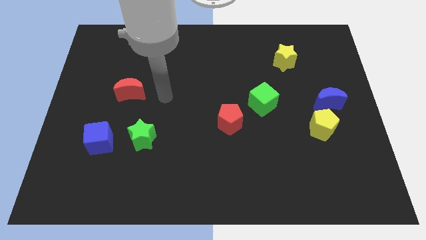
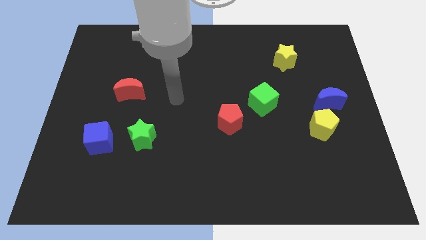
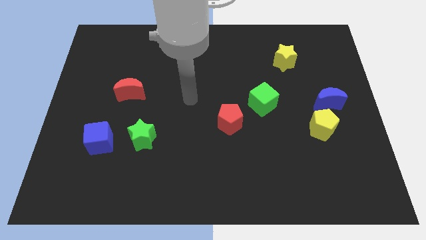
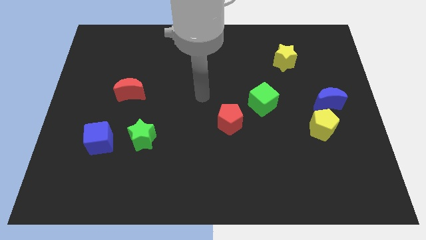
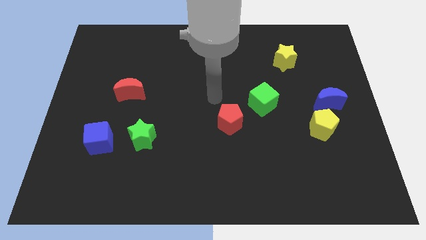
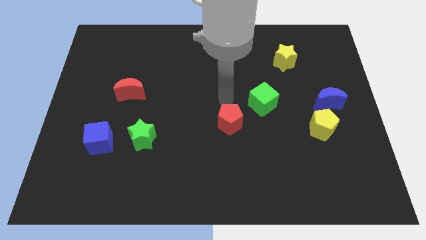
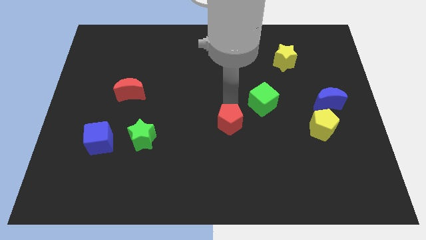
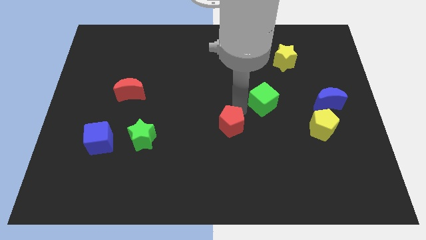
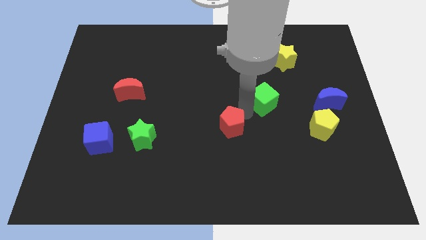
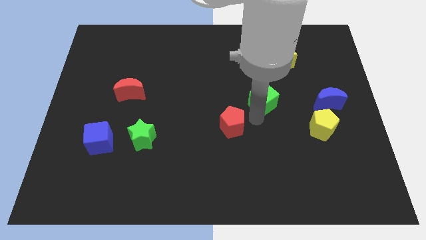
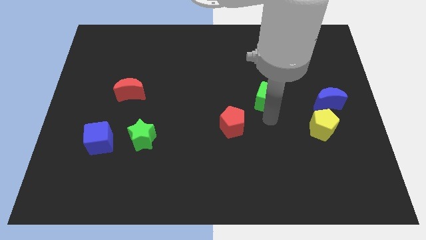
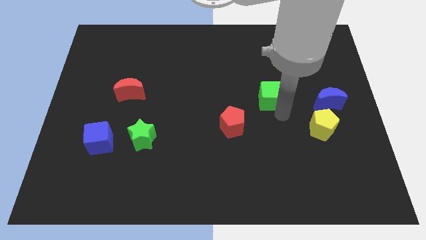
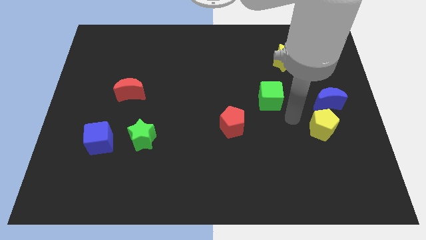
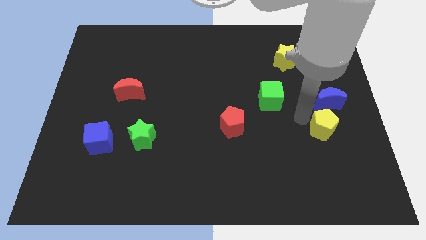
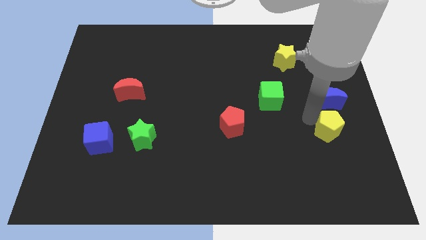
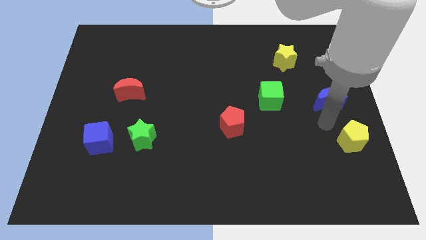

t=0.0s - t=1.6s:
move the blue moon away from the yellow pentagon

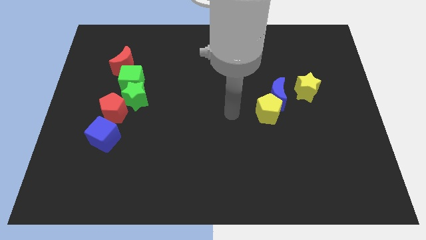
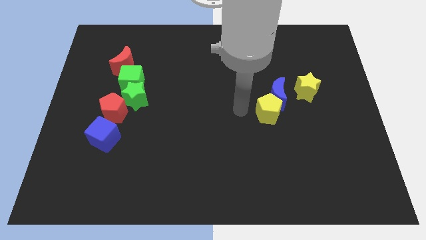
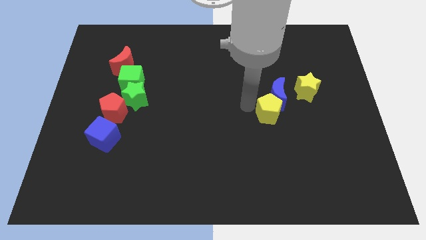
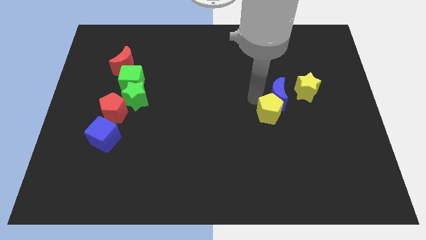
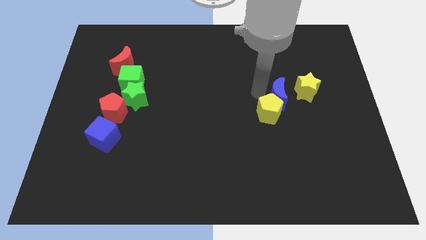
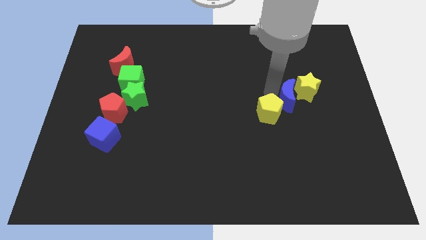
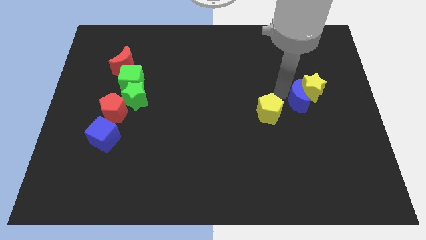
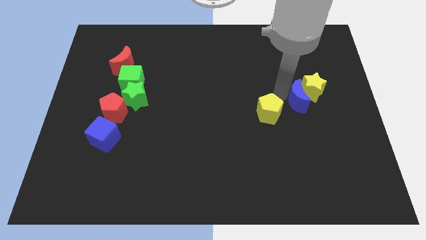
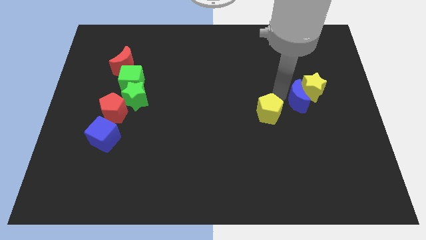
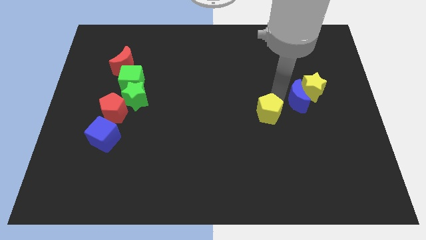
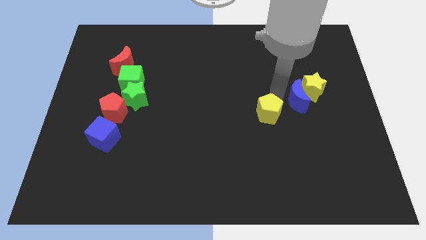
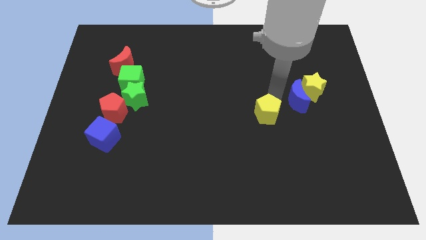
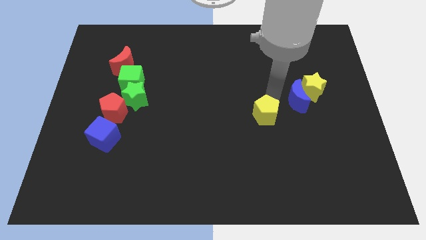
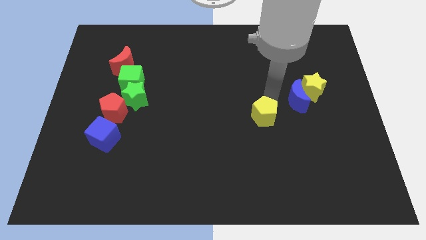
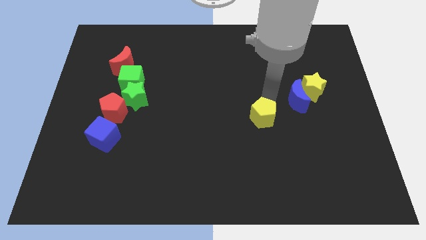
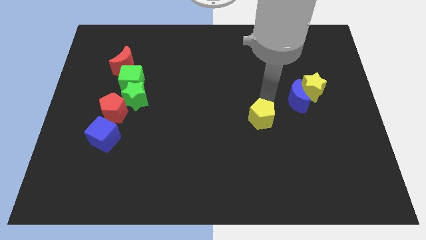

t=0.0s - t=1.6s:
move the yellow pentagon away from the blue moon

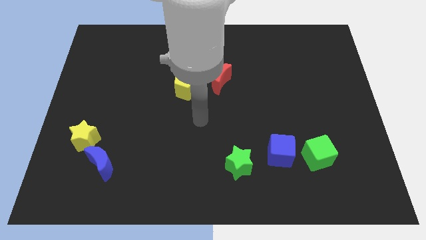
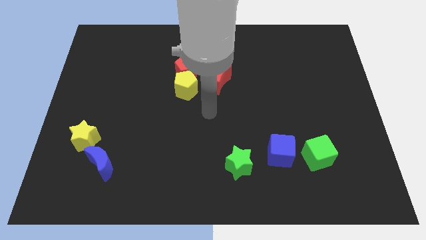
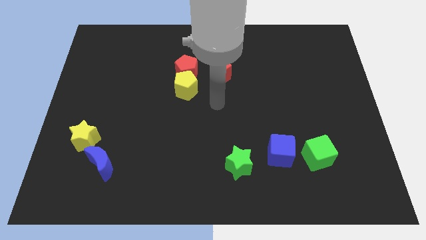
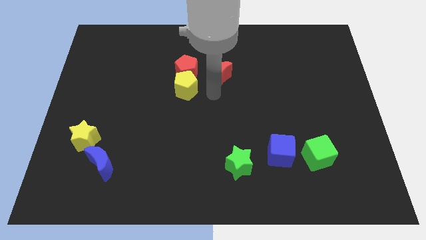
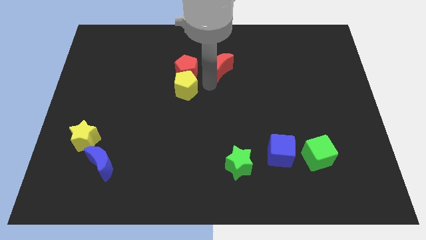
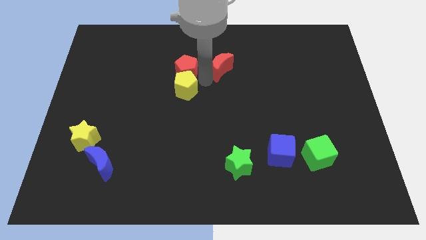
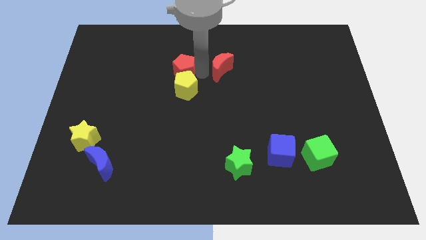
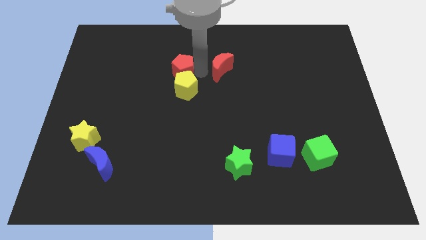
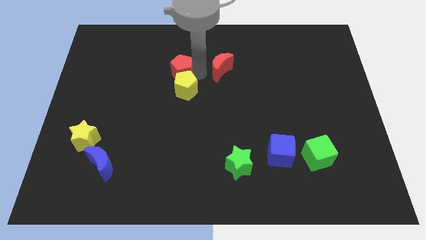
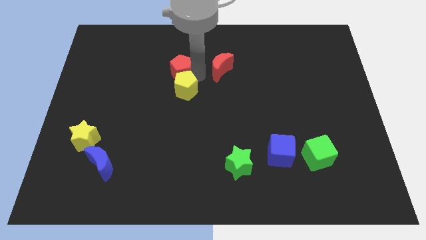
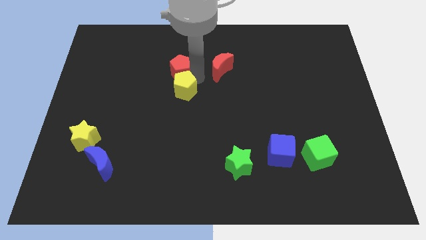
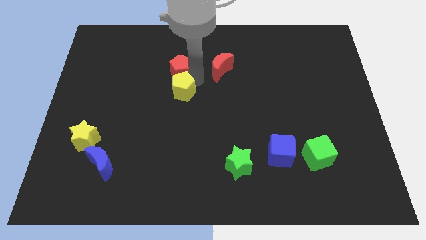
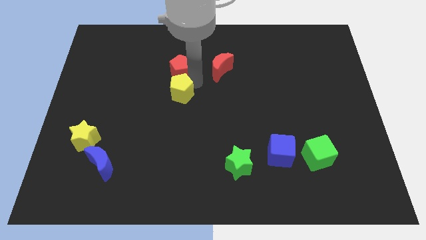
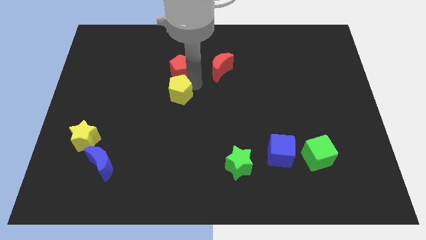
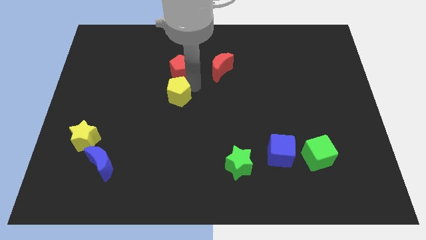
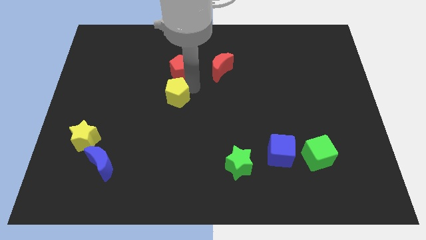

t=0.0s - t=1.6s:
move the yellow pentagon away from the red pentagon and red moon

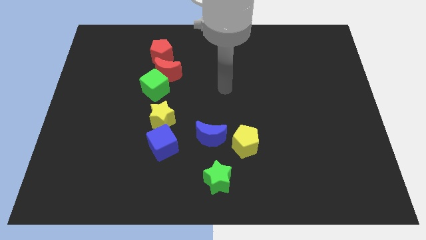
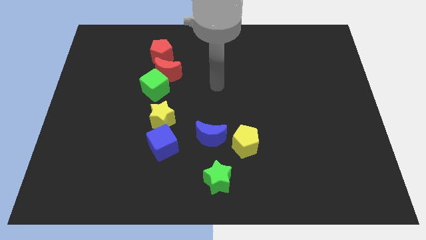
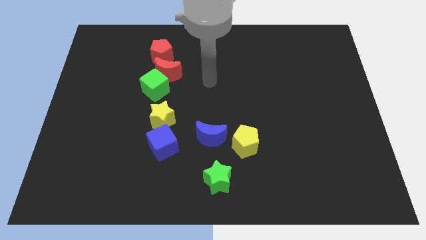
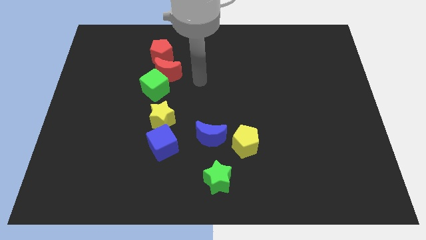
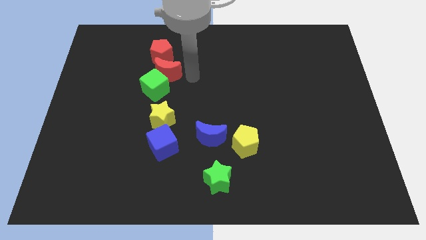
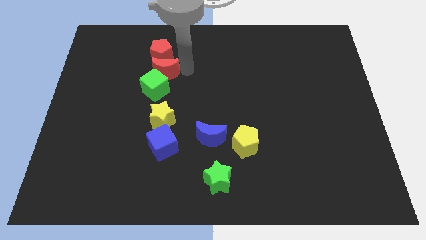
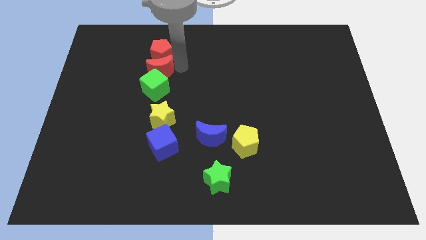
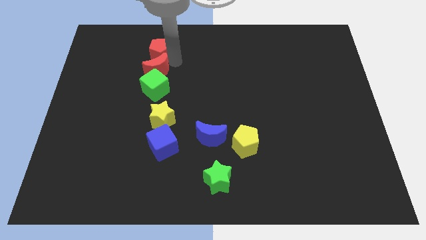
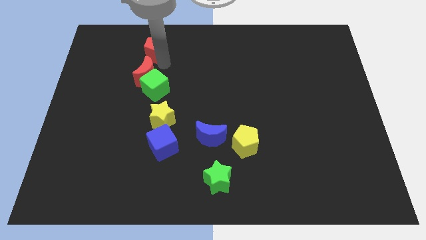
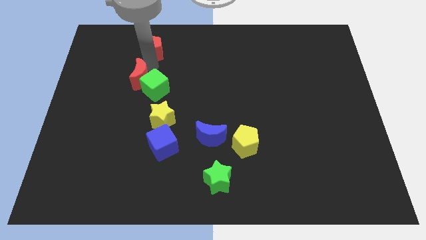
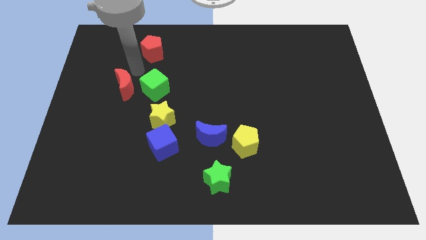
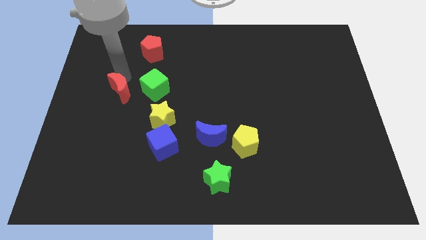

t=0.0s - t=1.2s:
pull the red moon apart from the green cube and red pentagon

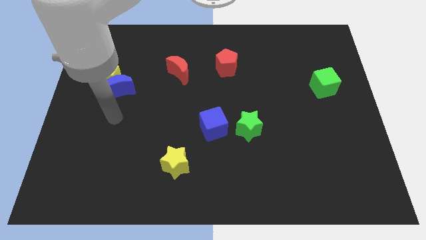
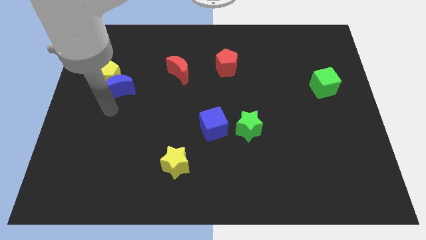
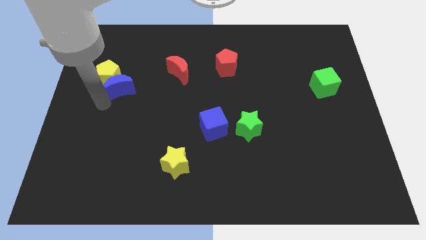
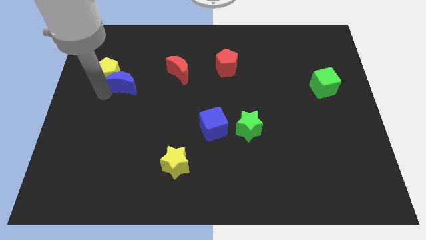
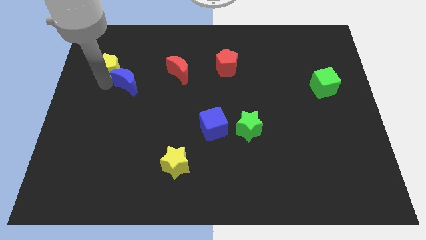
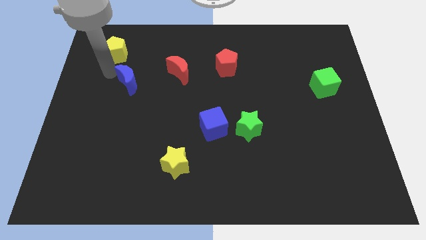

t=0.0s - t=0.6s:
separate the blue moon from the yellow pentagon

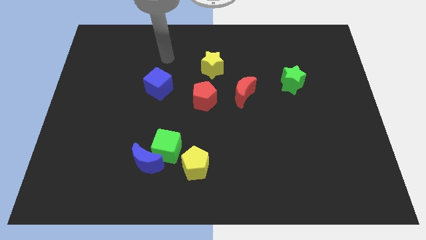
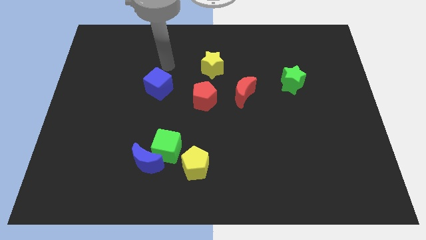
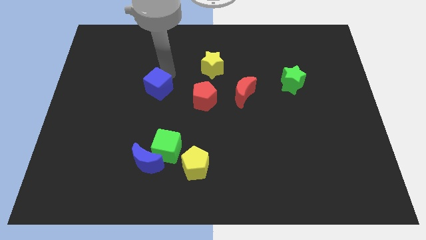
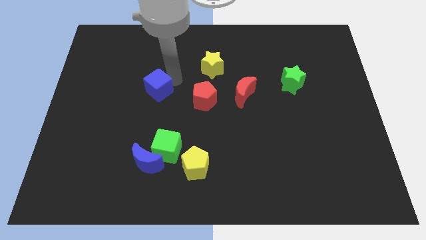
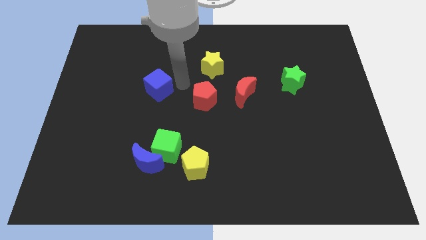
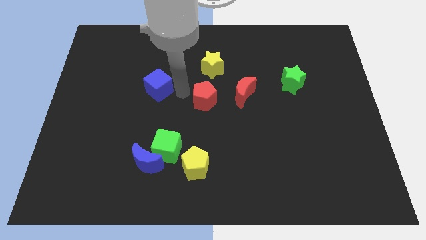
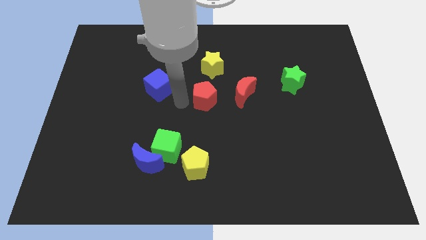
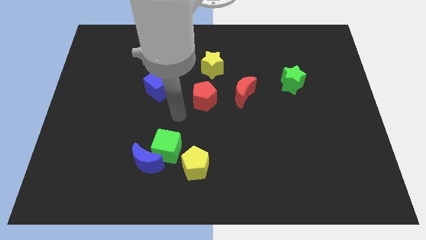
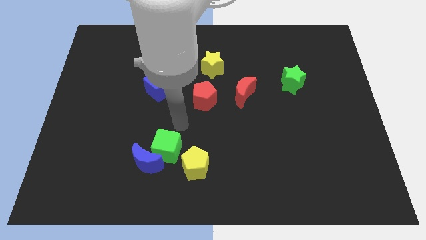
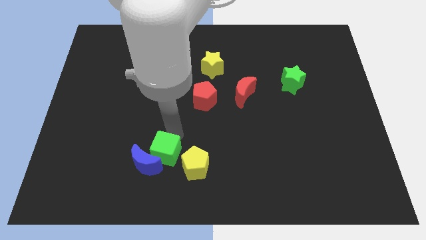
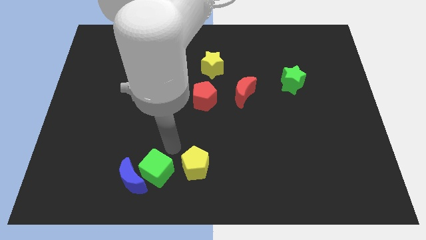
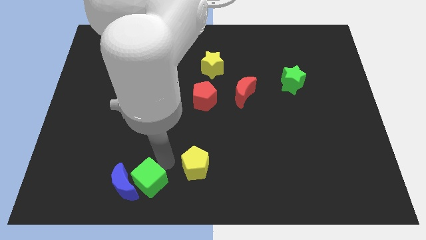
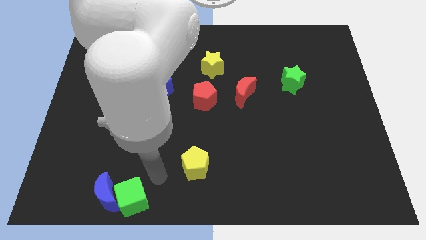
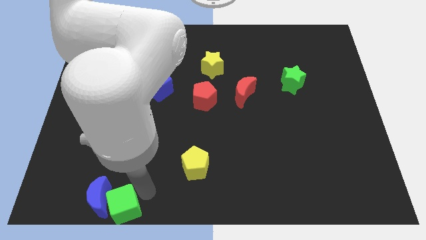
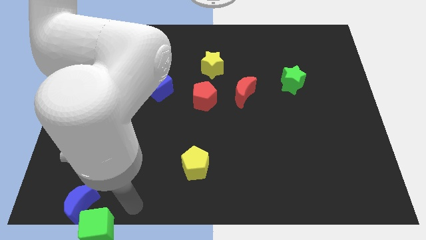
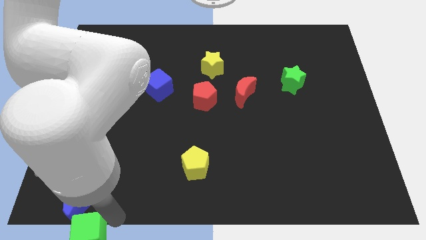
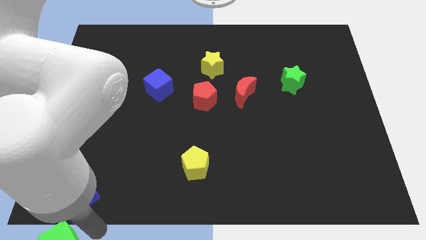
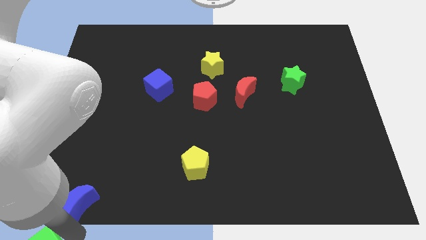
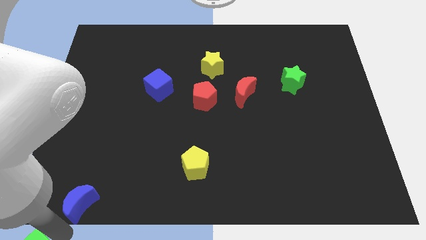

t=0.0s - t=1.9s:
pull the blue moon apart from the green cube

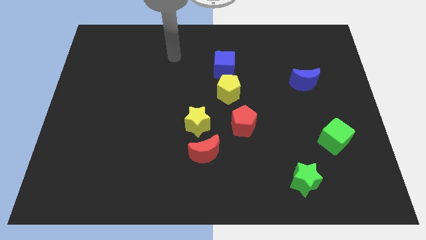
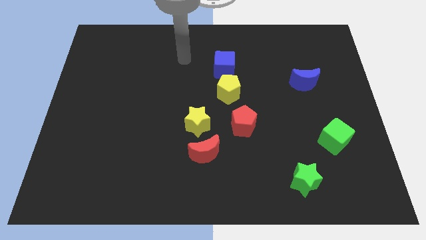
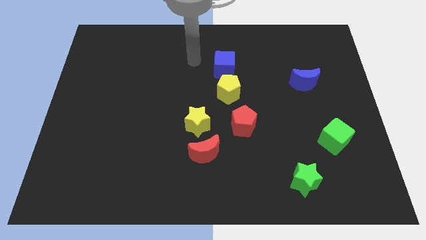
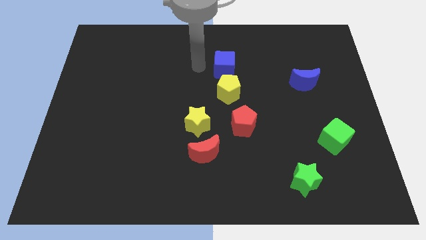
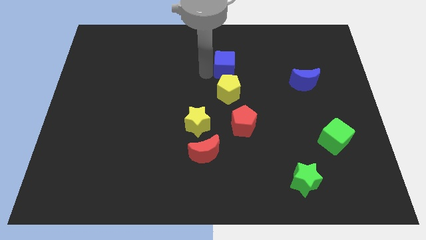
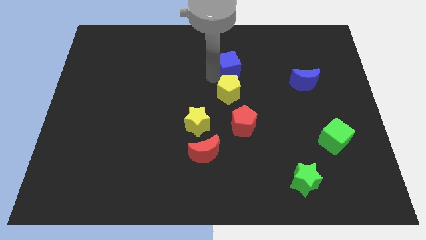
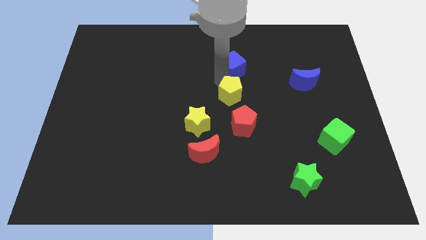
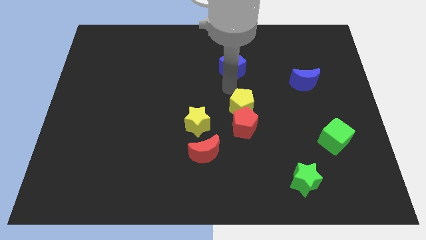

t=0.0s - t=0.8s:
separate the blue cube from the yellow pentagon
